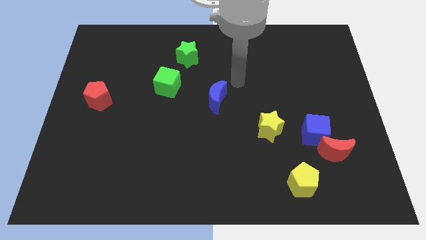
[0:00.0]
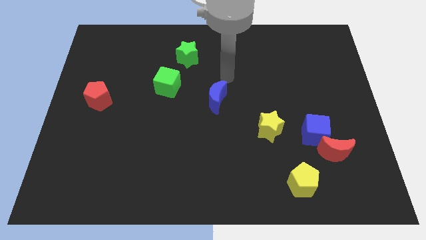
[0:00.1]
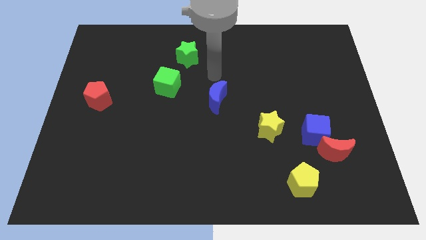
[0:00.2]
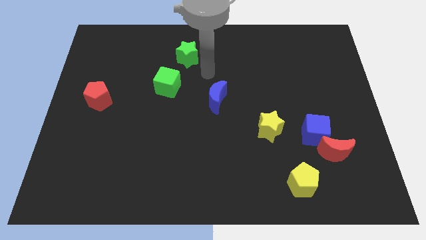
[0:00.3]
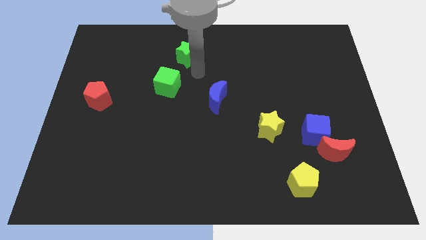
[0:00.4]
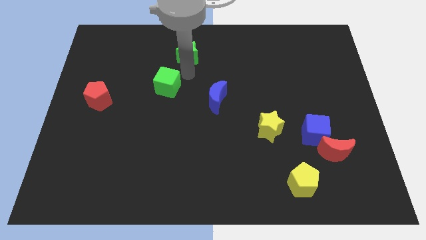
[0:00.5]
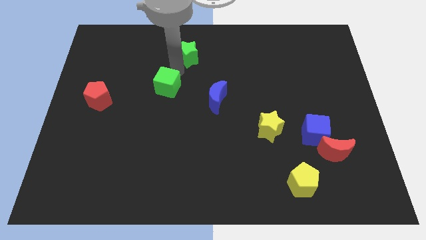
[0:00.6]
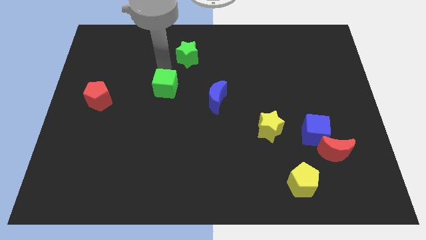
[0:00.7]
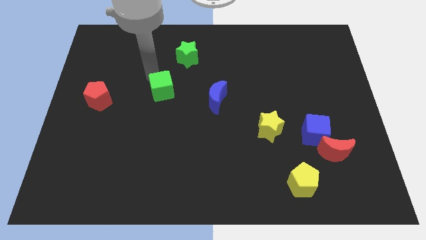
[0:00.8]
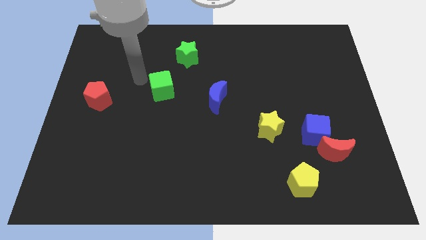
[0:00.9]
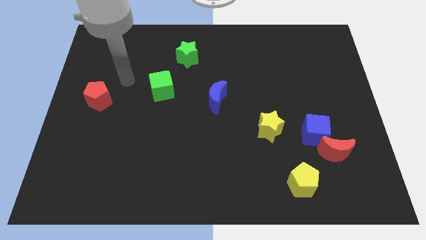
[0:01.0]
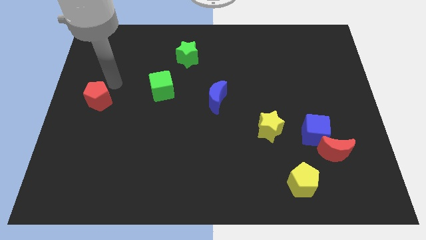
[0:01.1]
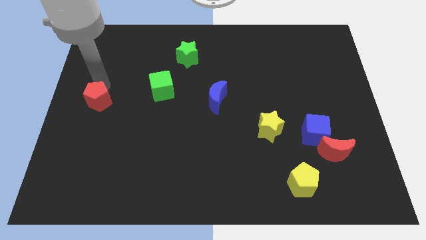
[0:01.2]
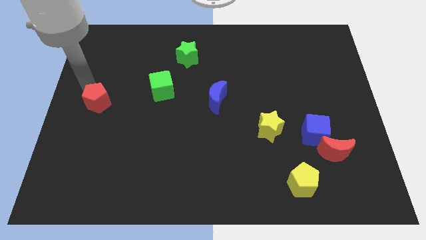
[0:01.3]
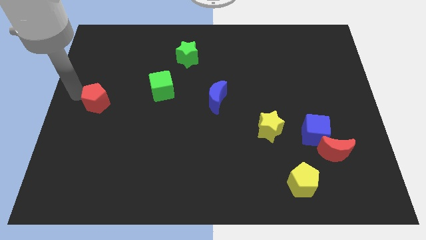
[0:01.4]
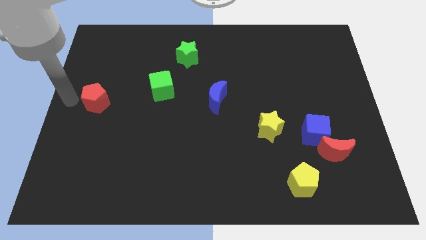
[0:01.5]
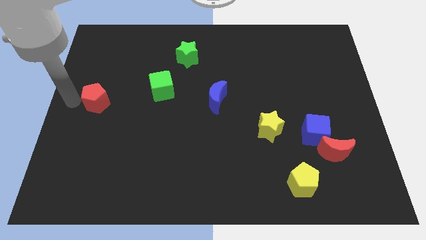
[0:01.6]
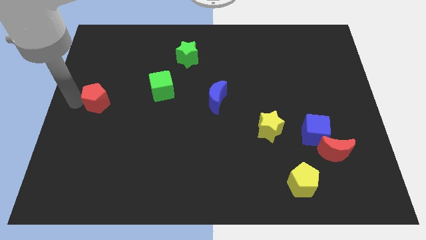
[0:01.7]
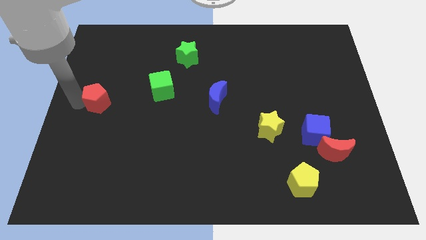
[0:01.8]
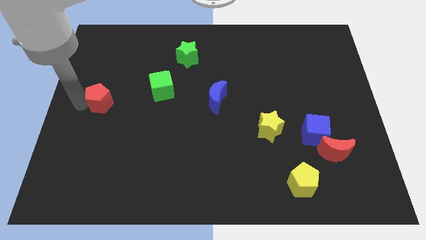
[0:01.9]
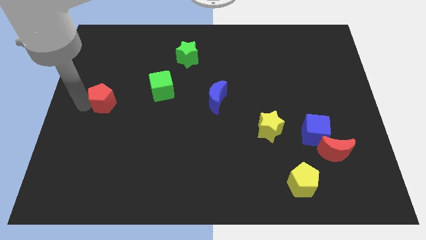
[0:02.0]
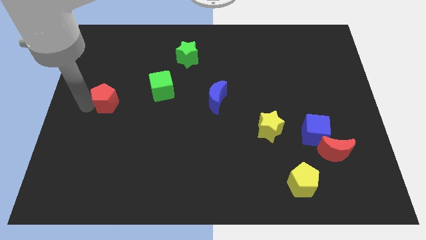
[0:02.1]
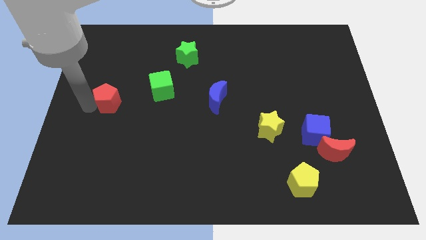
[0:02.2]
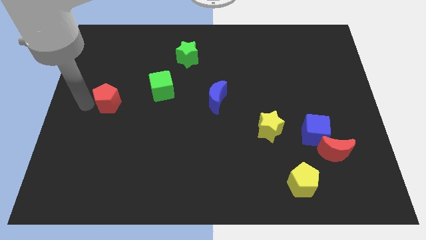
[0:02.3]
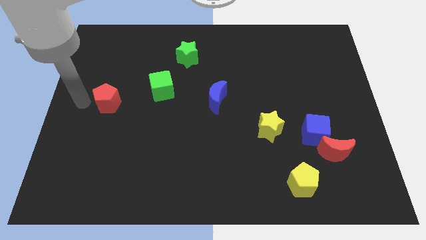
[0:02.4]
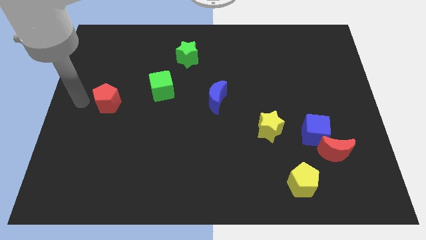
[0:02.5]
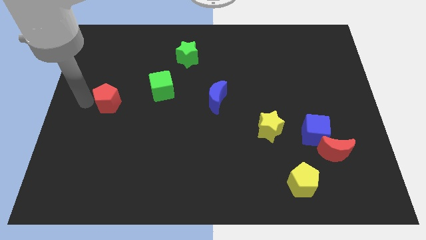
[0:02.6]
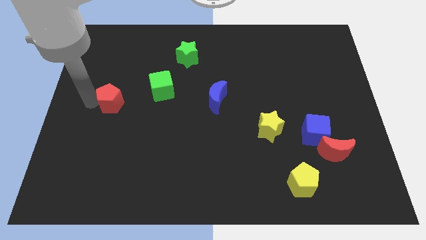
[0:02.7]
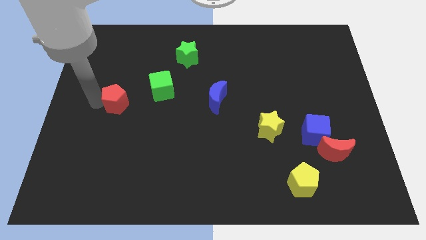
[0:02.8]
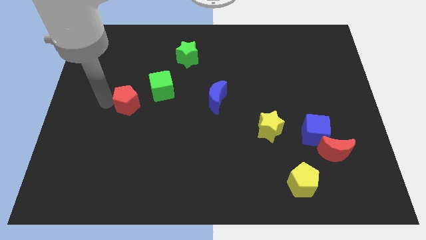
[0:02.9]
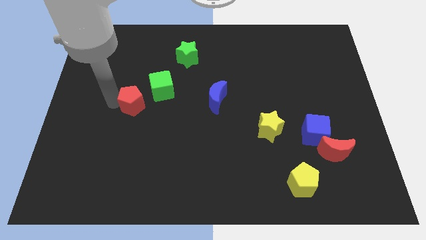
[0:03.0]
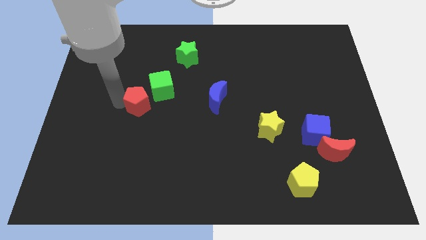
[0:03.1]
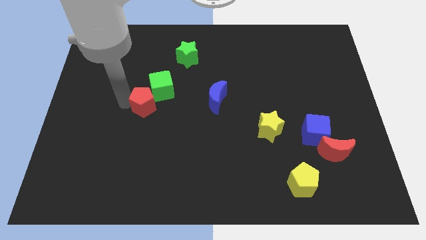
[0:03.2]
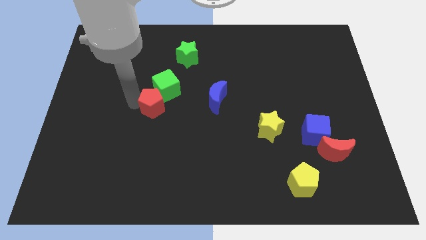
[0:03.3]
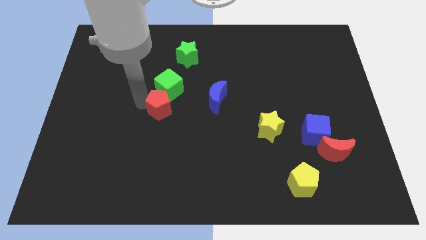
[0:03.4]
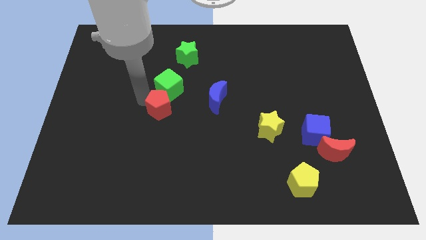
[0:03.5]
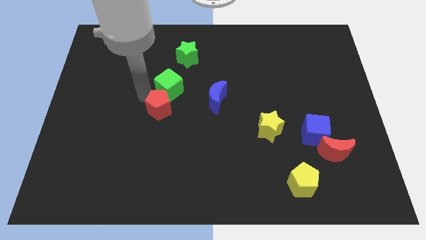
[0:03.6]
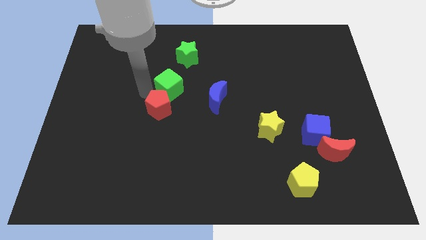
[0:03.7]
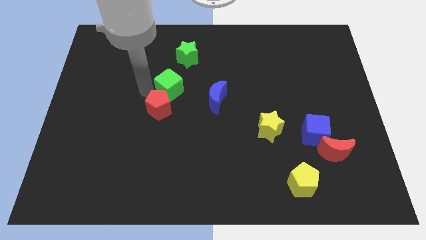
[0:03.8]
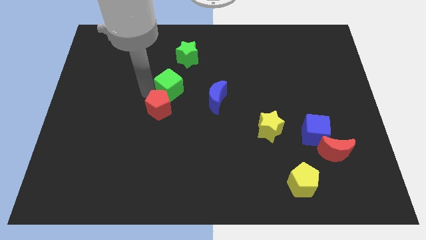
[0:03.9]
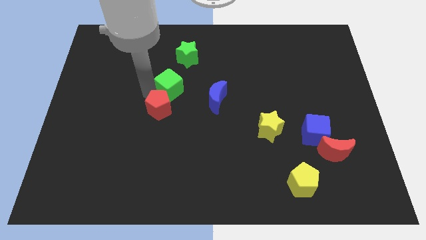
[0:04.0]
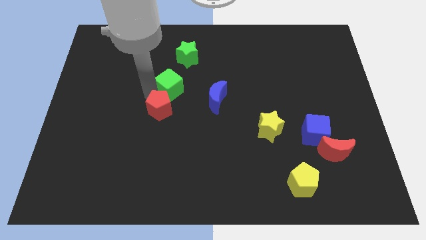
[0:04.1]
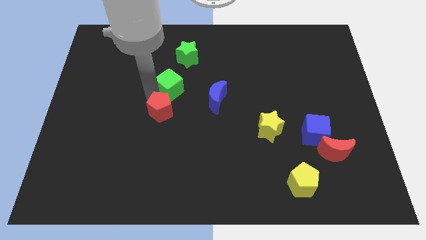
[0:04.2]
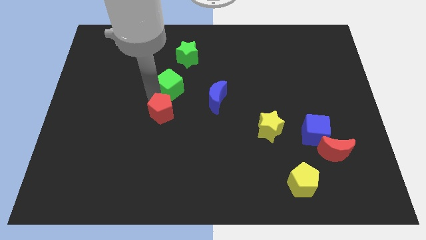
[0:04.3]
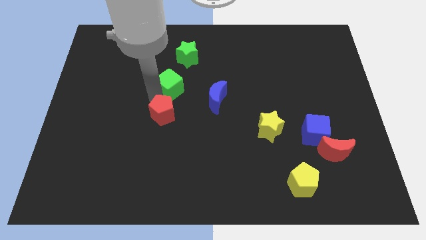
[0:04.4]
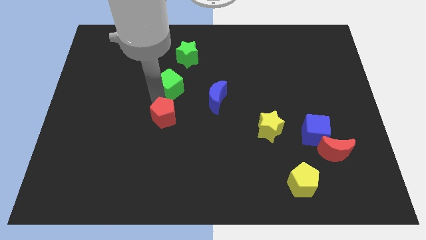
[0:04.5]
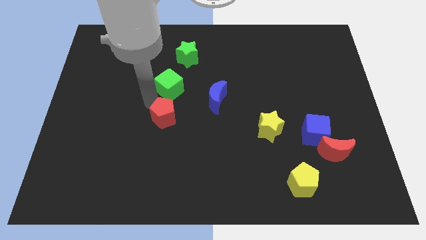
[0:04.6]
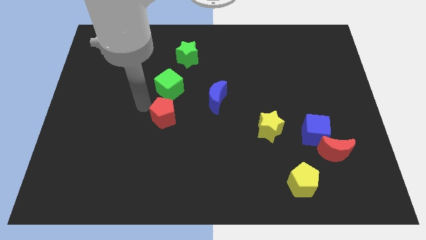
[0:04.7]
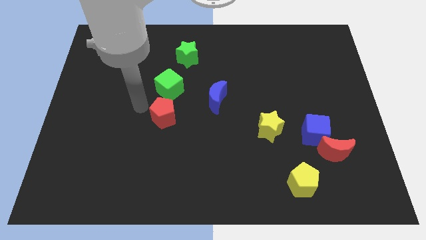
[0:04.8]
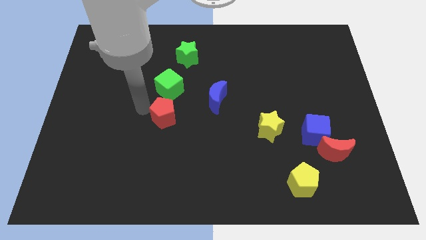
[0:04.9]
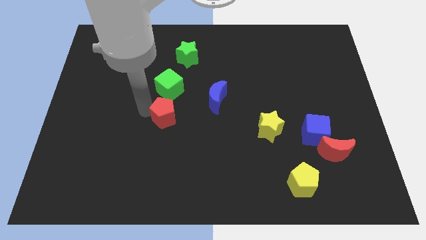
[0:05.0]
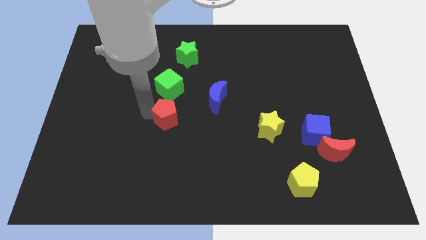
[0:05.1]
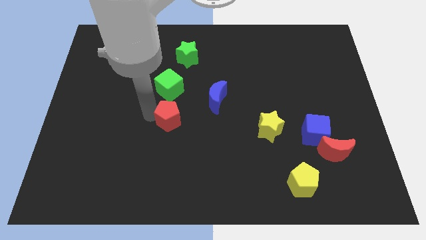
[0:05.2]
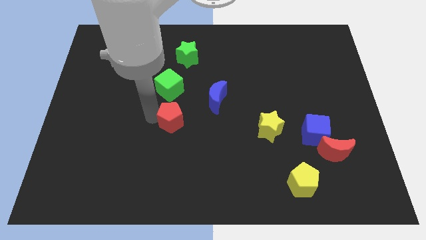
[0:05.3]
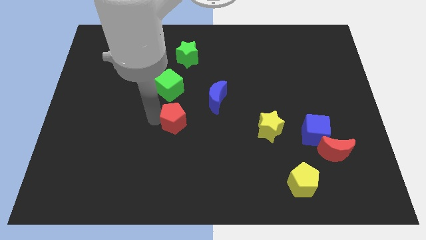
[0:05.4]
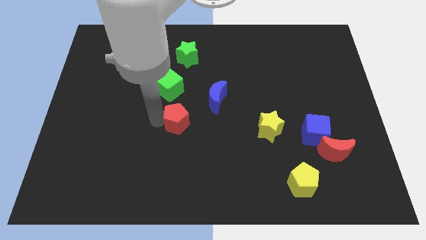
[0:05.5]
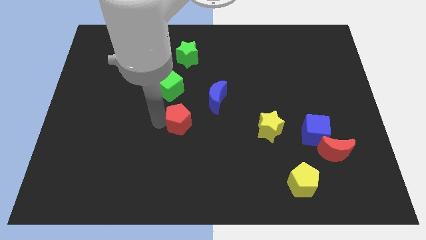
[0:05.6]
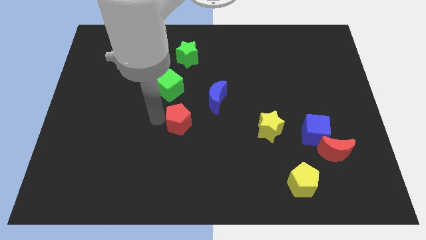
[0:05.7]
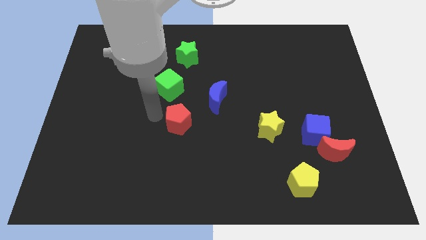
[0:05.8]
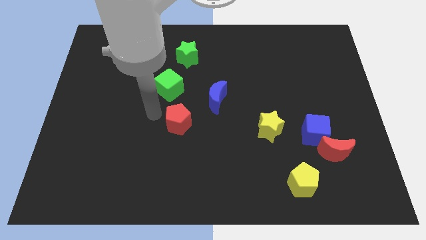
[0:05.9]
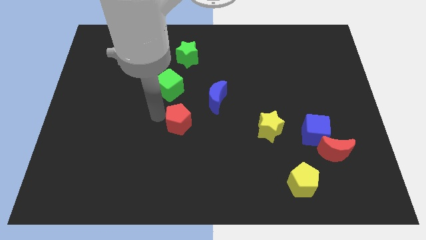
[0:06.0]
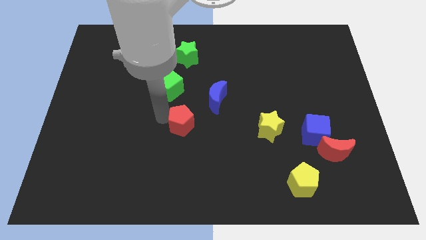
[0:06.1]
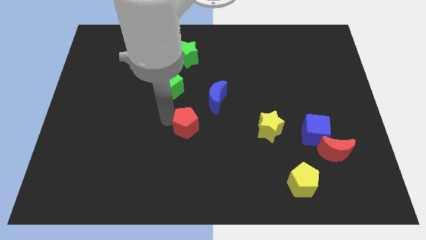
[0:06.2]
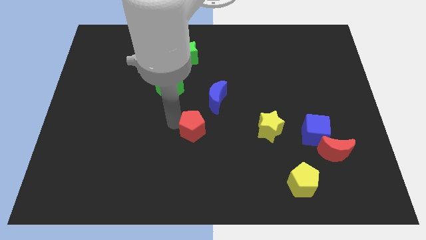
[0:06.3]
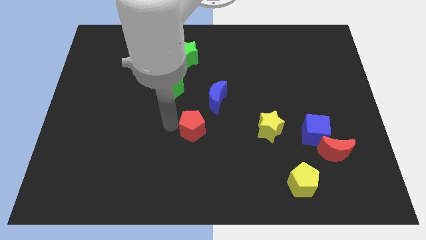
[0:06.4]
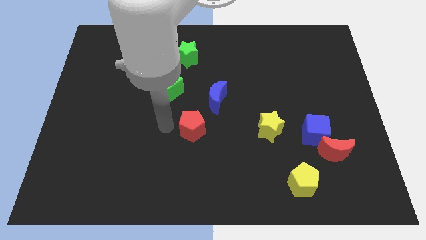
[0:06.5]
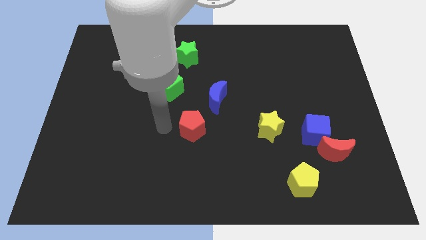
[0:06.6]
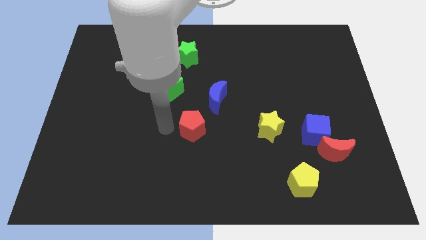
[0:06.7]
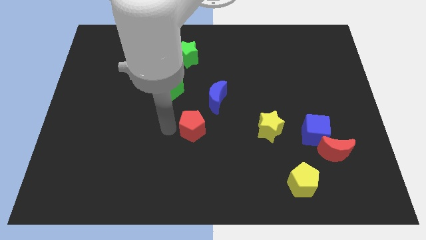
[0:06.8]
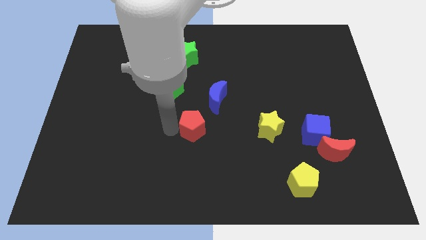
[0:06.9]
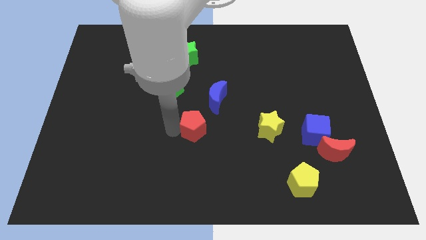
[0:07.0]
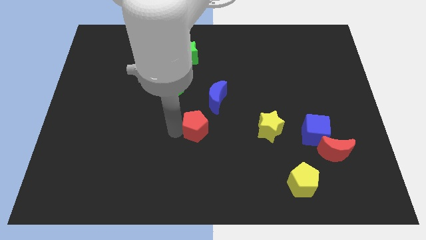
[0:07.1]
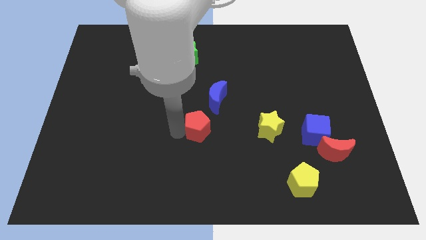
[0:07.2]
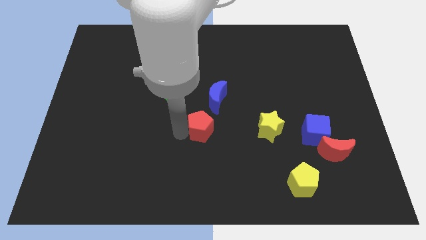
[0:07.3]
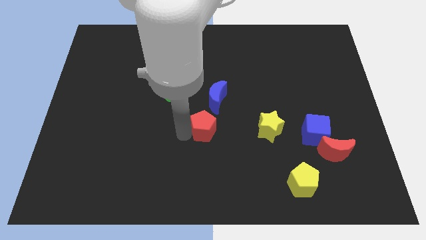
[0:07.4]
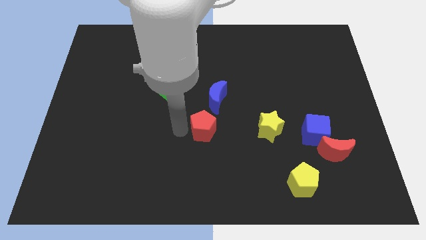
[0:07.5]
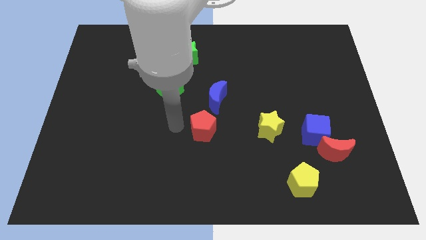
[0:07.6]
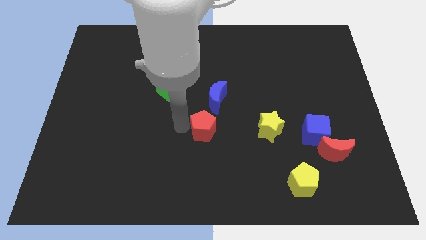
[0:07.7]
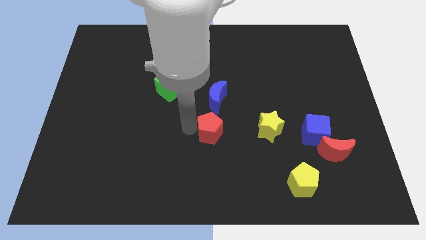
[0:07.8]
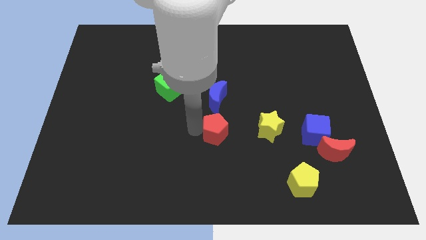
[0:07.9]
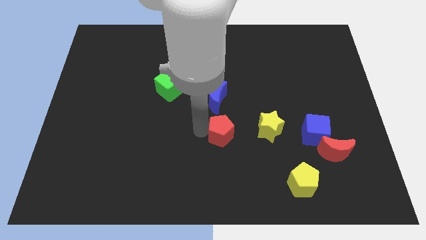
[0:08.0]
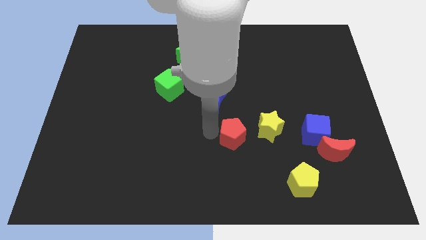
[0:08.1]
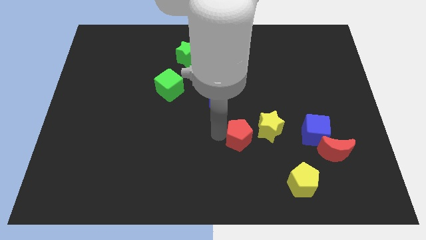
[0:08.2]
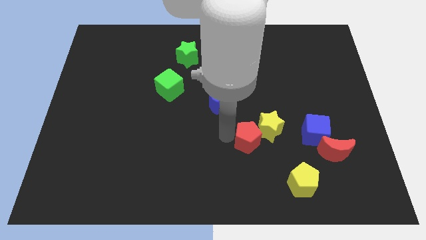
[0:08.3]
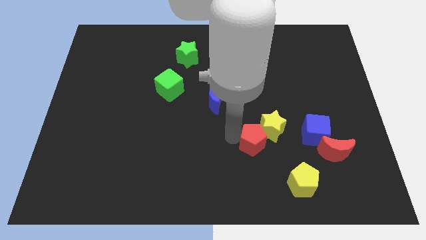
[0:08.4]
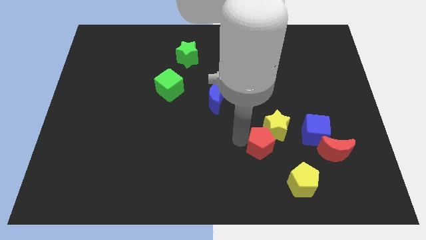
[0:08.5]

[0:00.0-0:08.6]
slide the red pentagon just left of the red moon
